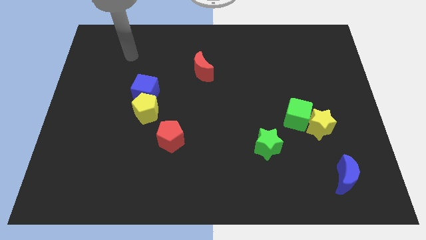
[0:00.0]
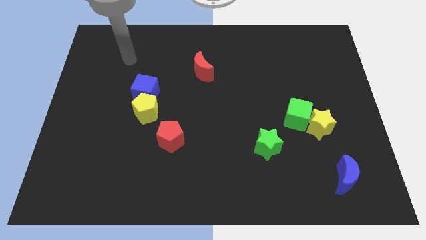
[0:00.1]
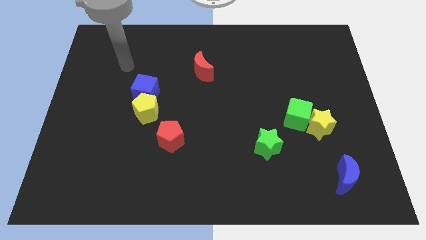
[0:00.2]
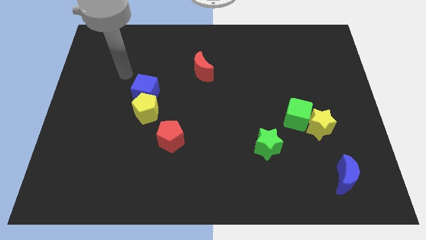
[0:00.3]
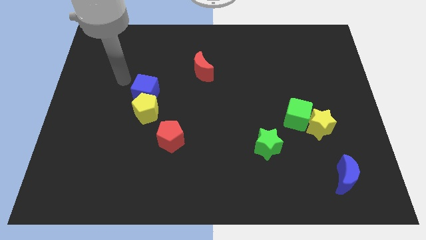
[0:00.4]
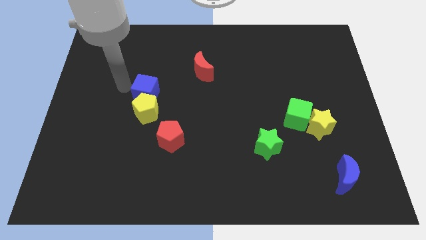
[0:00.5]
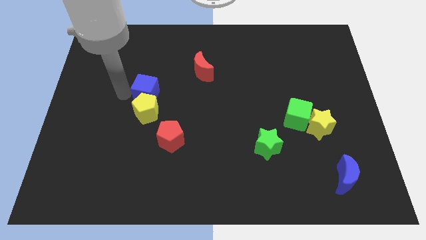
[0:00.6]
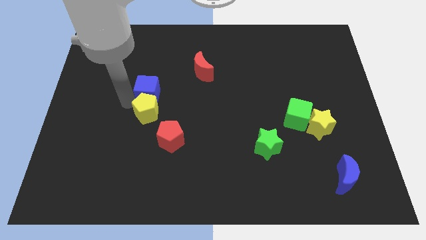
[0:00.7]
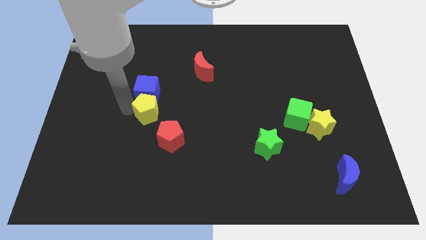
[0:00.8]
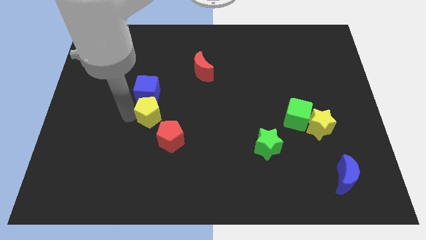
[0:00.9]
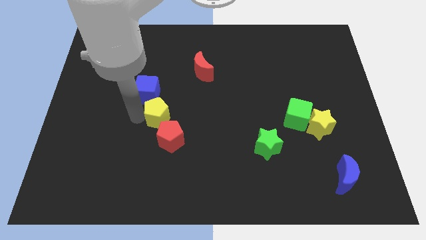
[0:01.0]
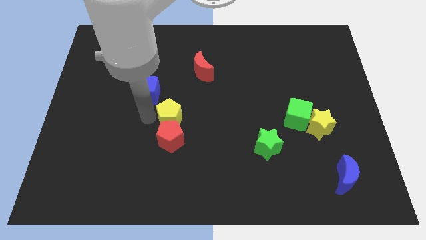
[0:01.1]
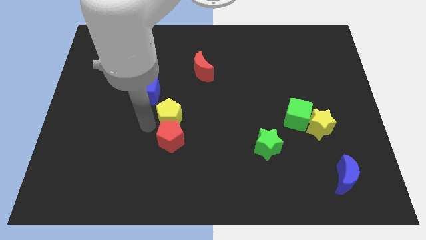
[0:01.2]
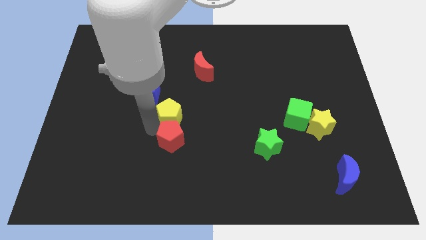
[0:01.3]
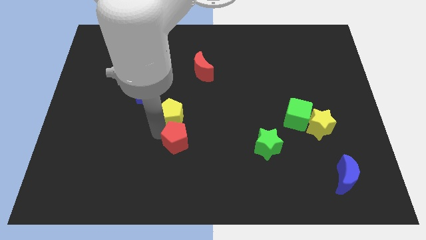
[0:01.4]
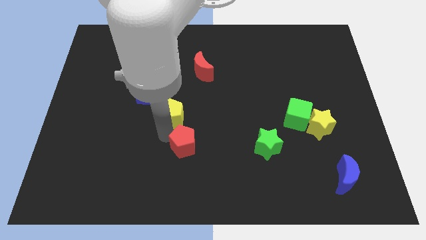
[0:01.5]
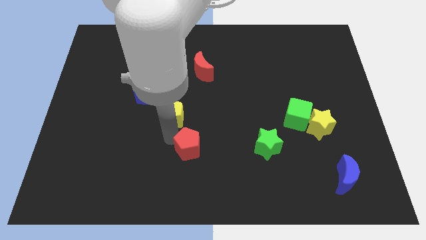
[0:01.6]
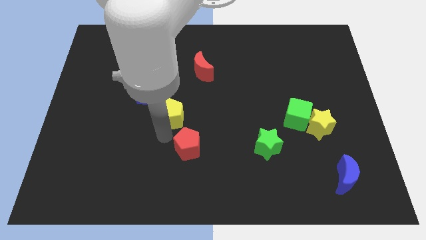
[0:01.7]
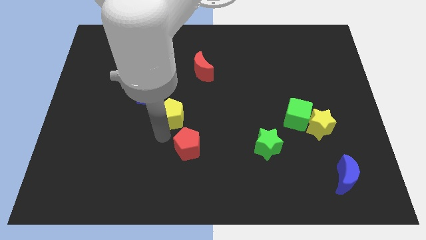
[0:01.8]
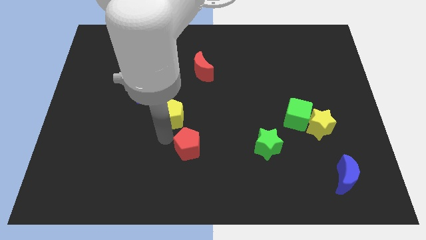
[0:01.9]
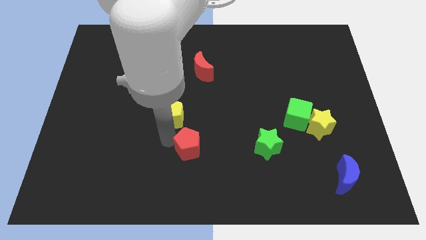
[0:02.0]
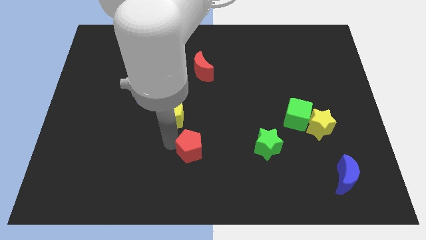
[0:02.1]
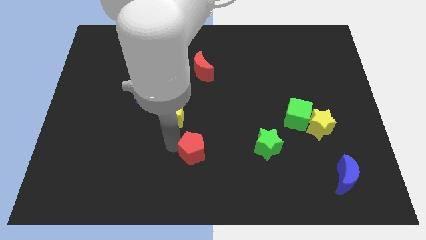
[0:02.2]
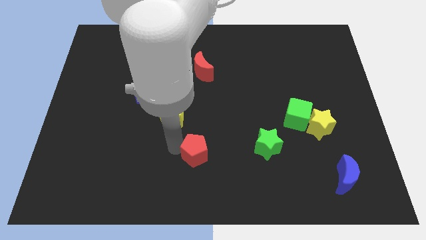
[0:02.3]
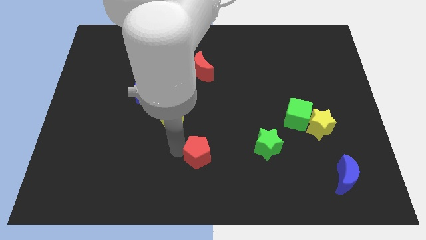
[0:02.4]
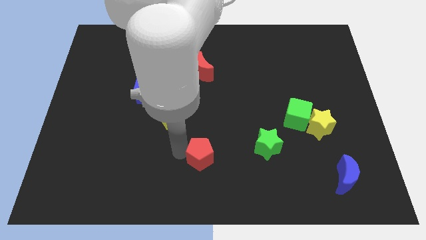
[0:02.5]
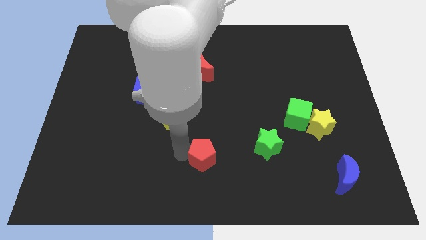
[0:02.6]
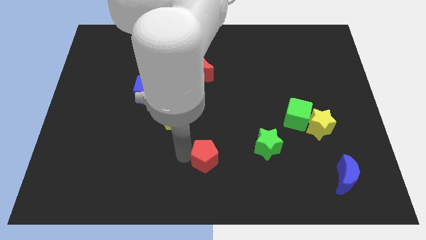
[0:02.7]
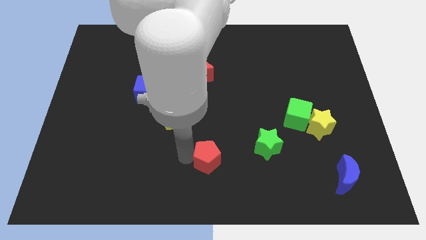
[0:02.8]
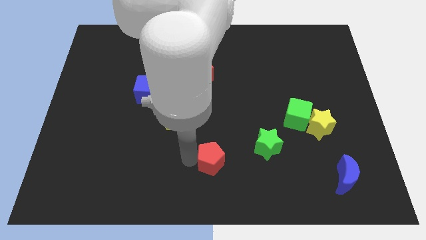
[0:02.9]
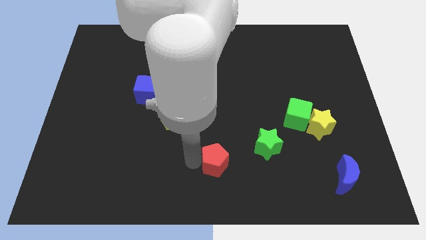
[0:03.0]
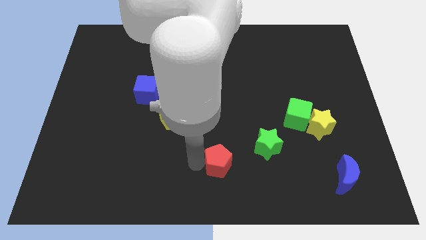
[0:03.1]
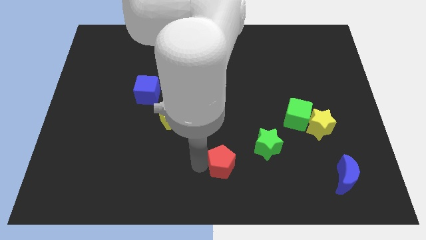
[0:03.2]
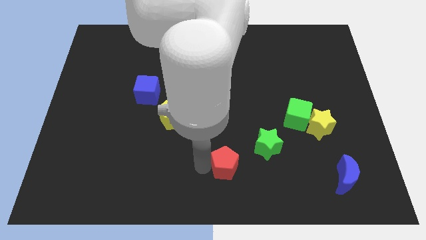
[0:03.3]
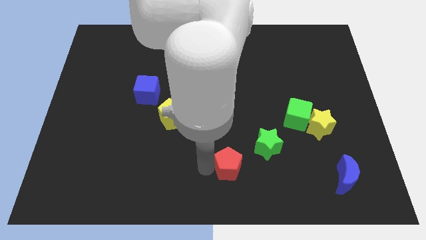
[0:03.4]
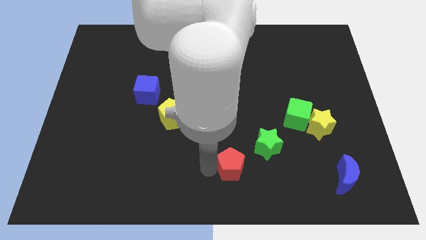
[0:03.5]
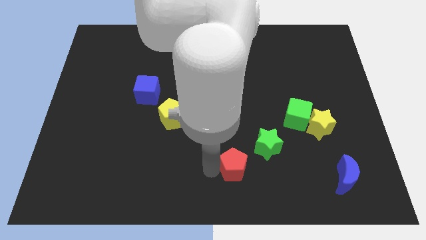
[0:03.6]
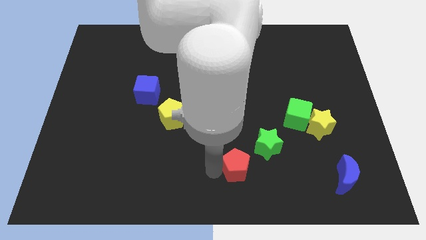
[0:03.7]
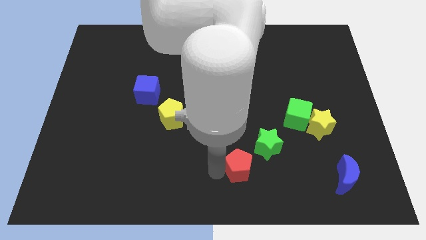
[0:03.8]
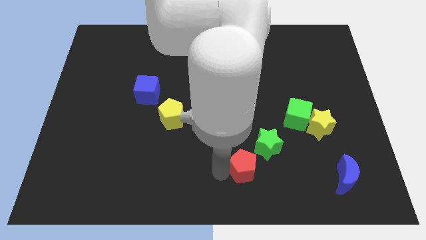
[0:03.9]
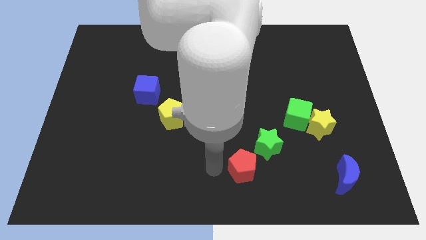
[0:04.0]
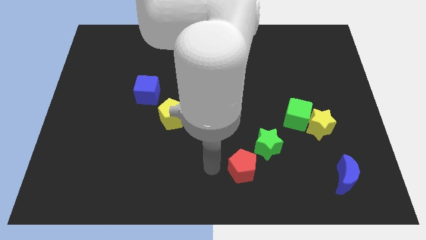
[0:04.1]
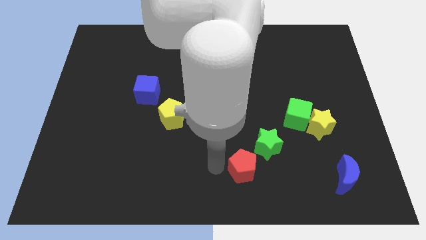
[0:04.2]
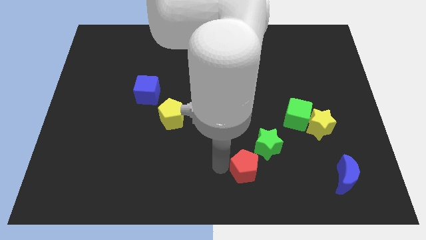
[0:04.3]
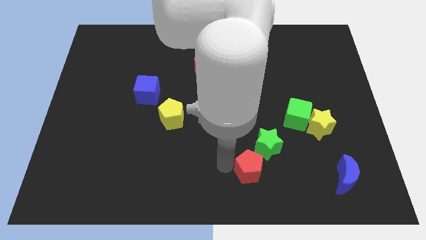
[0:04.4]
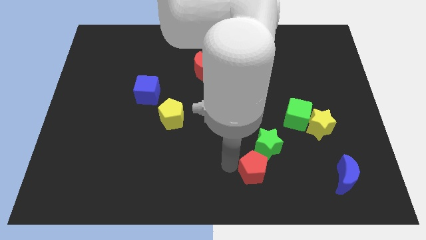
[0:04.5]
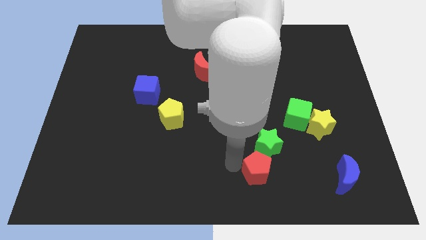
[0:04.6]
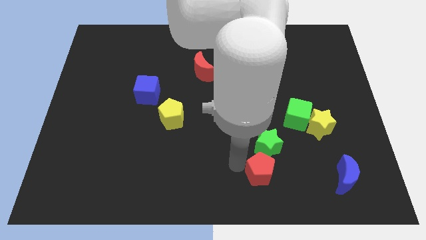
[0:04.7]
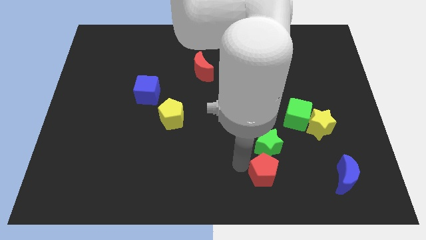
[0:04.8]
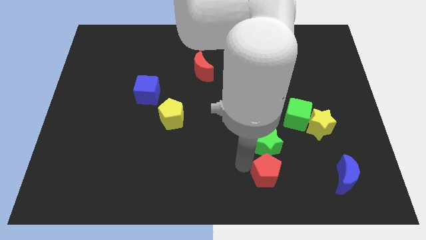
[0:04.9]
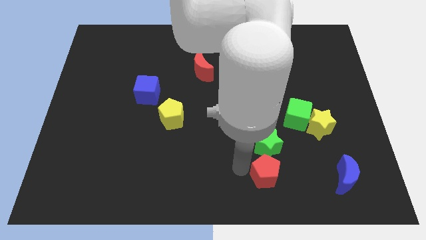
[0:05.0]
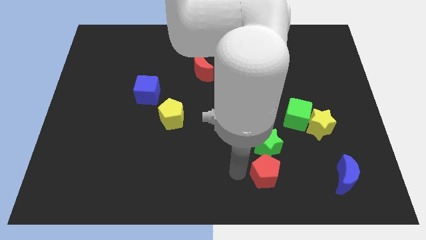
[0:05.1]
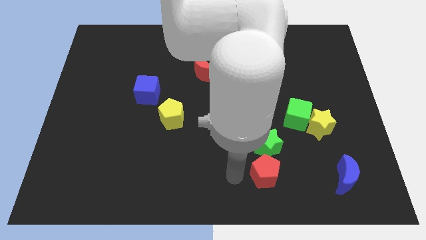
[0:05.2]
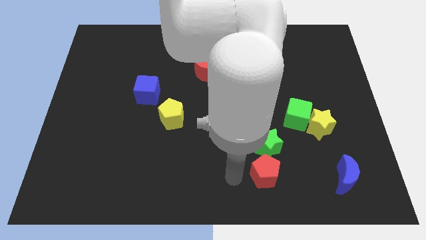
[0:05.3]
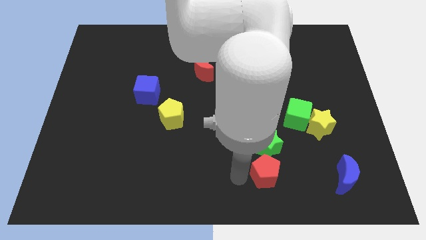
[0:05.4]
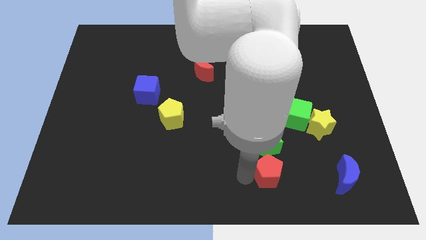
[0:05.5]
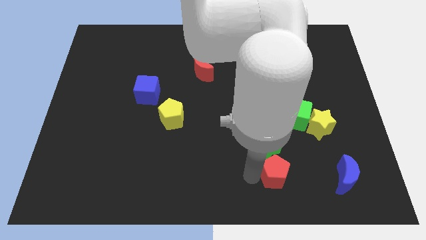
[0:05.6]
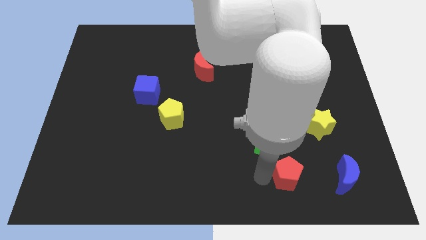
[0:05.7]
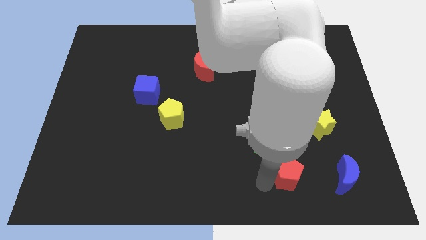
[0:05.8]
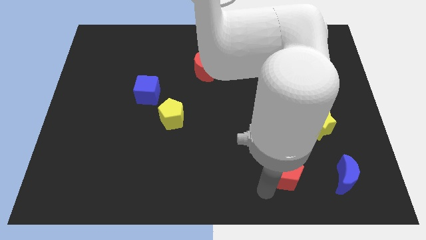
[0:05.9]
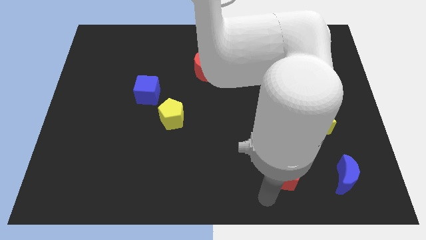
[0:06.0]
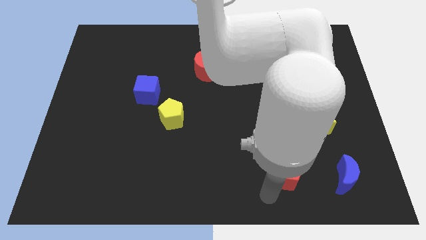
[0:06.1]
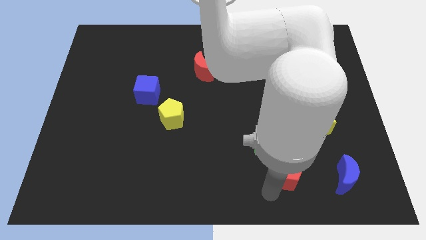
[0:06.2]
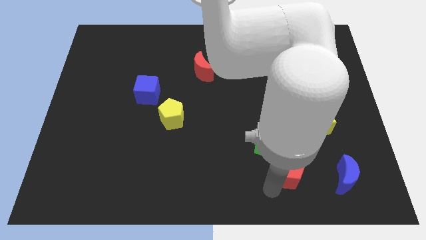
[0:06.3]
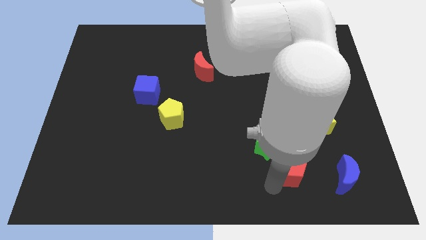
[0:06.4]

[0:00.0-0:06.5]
push the red pentagon to the bottom side of the green cube

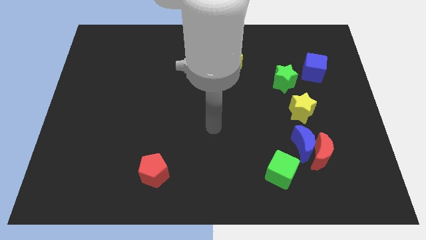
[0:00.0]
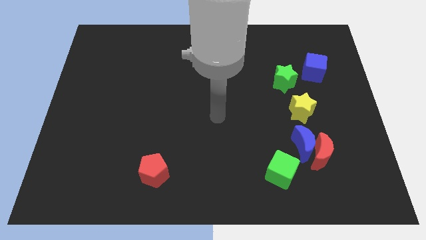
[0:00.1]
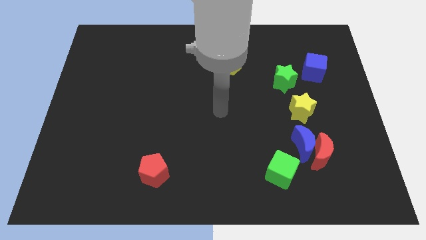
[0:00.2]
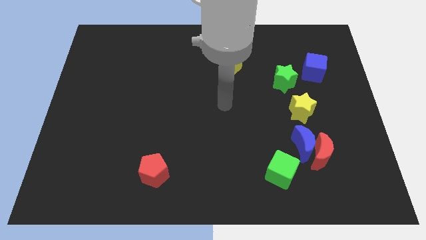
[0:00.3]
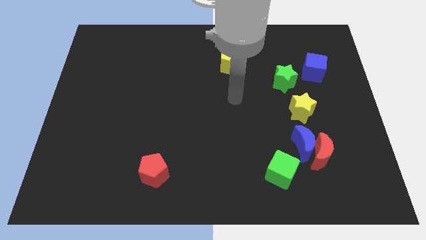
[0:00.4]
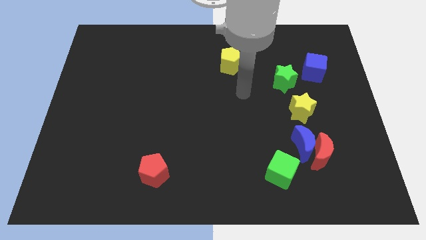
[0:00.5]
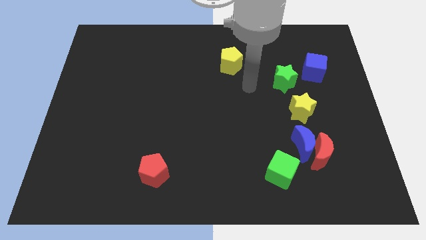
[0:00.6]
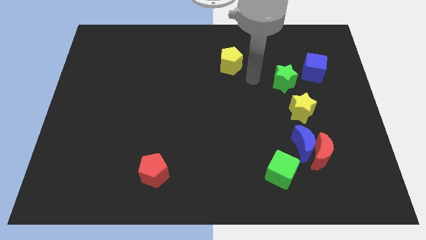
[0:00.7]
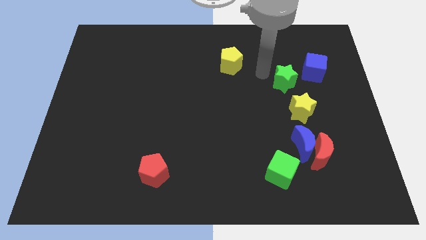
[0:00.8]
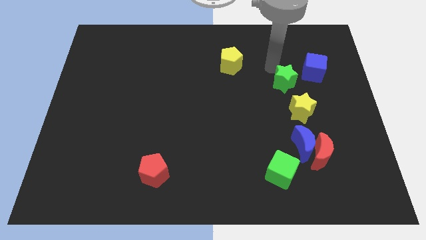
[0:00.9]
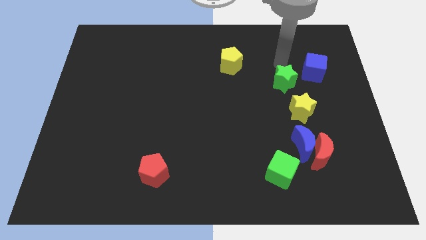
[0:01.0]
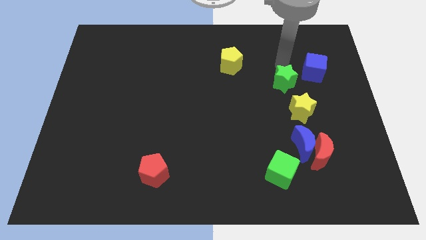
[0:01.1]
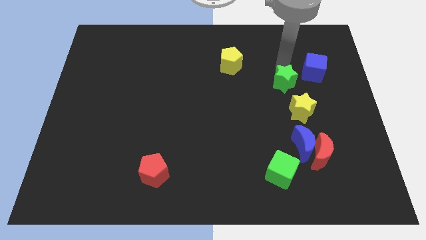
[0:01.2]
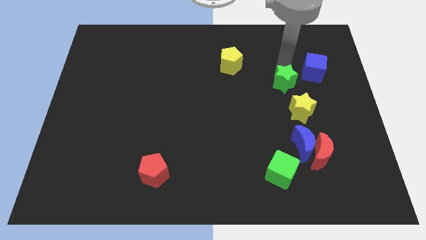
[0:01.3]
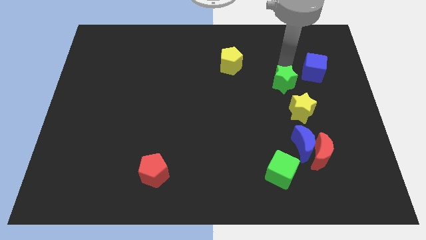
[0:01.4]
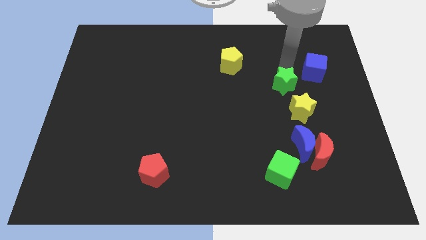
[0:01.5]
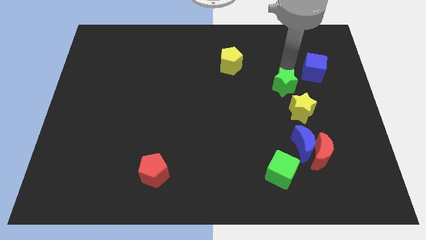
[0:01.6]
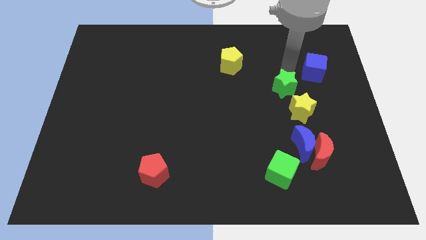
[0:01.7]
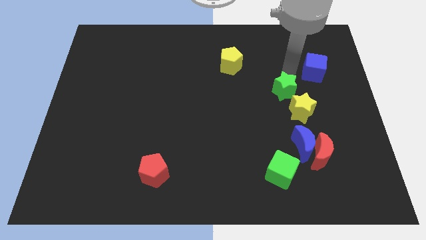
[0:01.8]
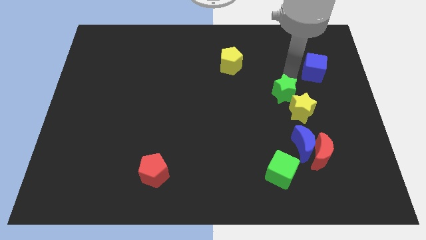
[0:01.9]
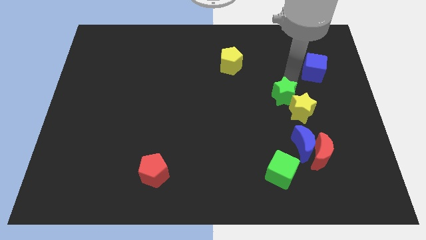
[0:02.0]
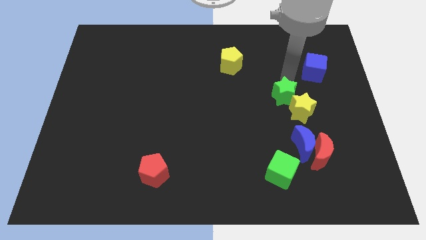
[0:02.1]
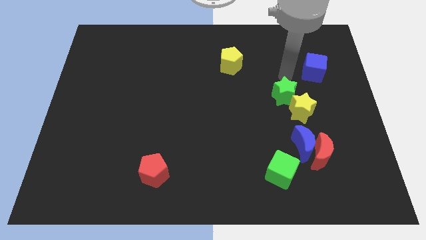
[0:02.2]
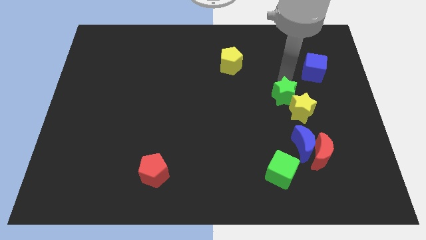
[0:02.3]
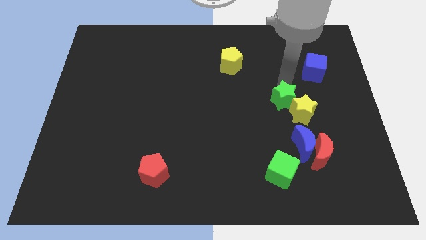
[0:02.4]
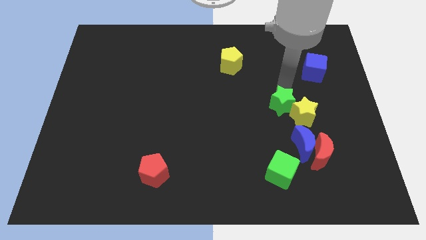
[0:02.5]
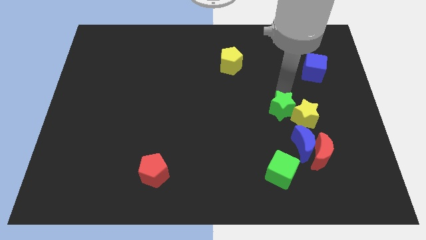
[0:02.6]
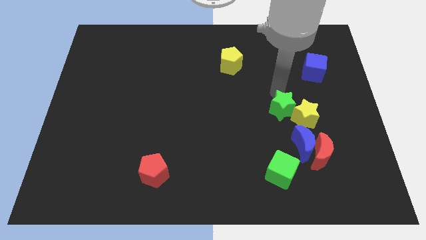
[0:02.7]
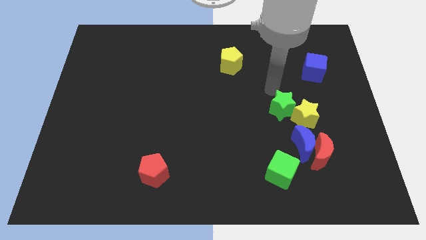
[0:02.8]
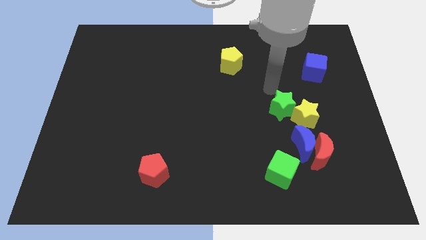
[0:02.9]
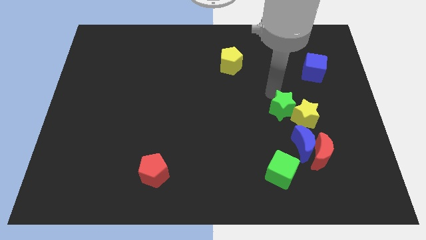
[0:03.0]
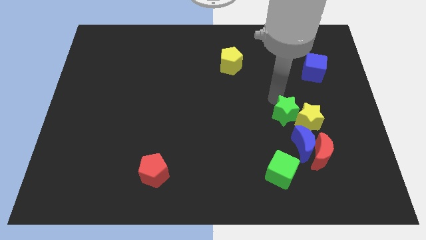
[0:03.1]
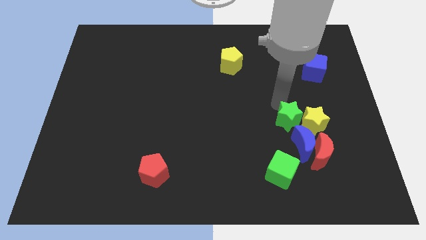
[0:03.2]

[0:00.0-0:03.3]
push the green star to the top left of the red moon
